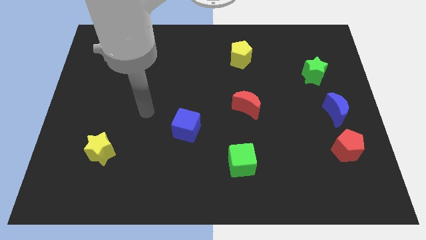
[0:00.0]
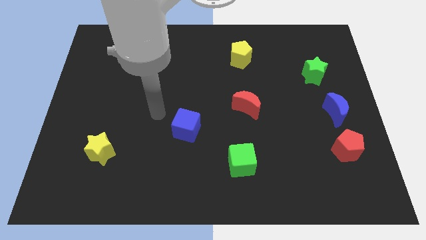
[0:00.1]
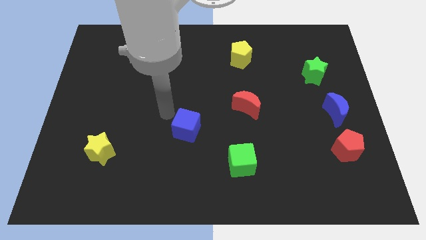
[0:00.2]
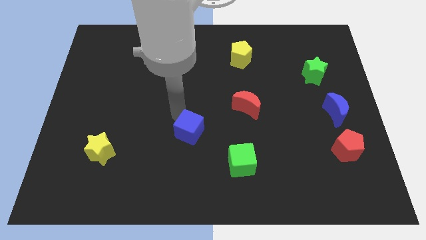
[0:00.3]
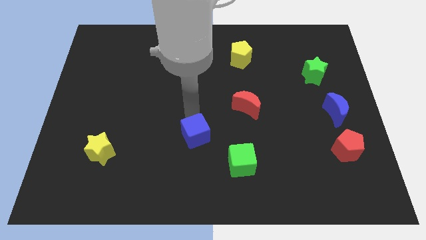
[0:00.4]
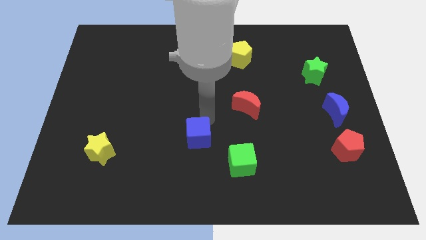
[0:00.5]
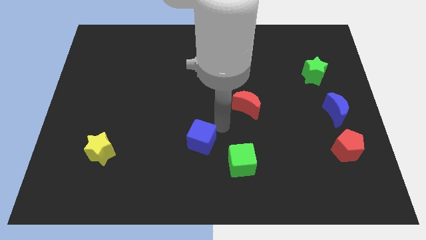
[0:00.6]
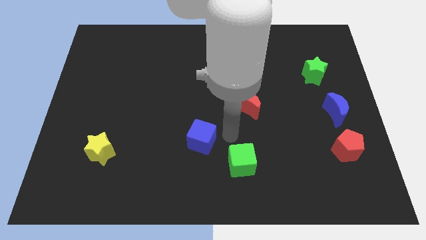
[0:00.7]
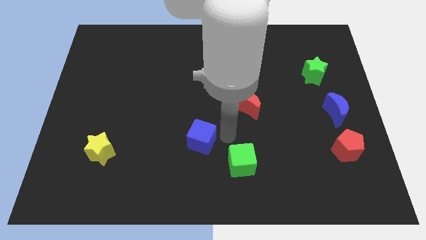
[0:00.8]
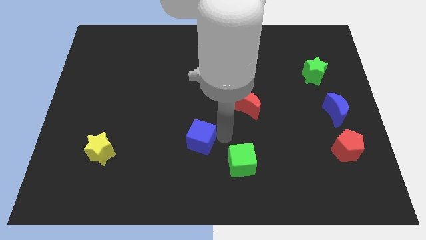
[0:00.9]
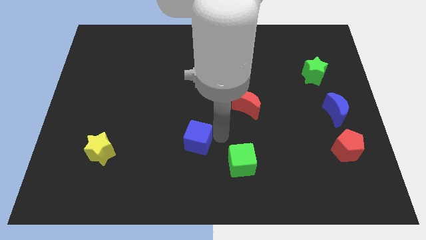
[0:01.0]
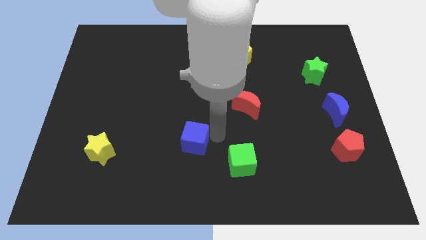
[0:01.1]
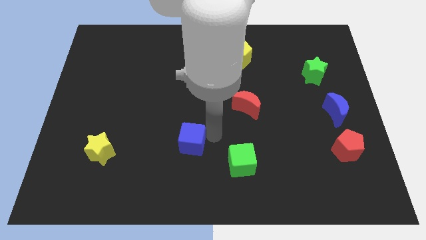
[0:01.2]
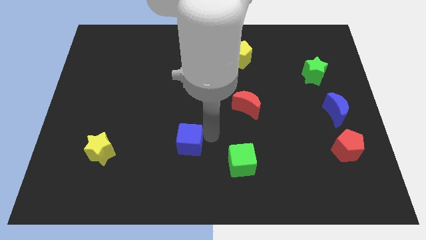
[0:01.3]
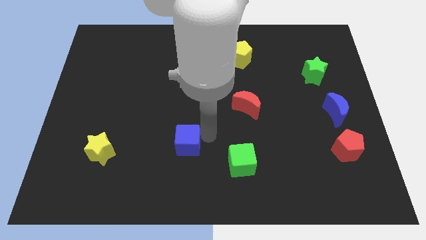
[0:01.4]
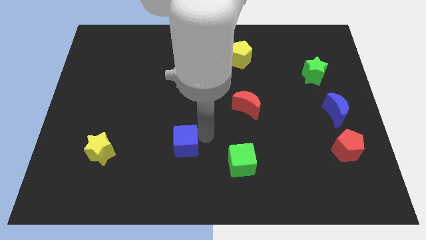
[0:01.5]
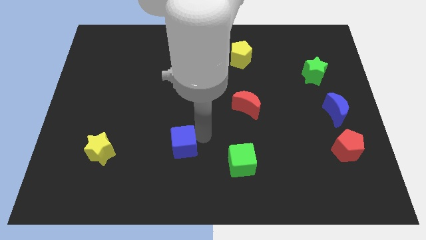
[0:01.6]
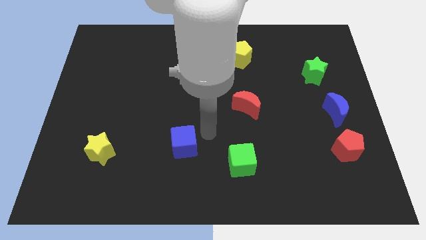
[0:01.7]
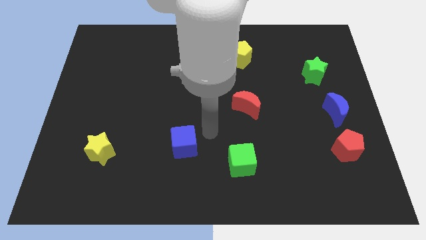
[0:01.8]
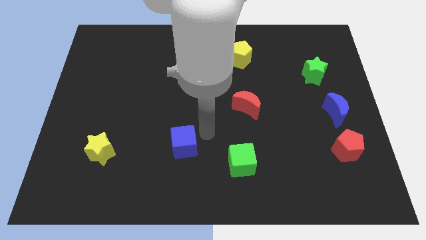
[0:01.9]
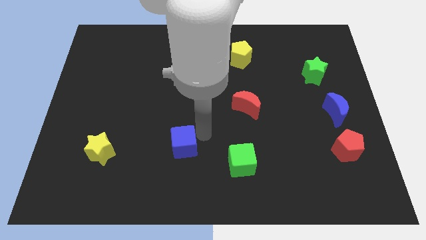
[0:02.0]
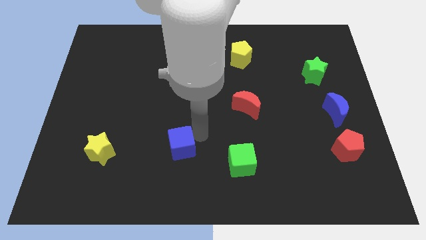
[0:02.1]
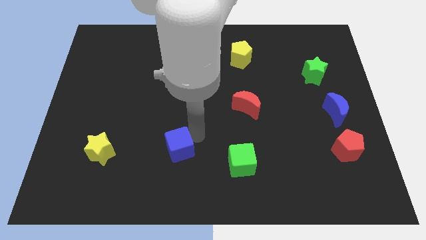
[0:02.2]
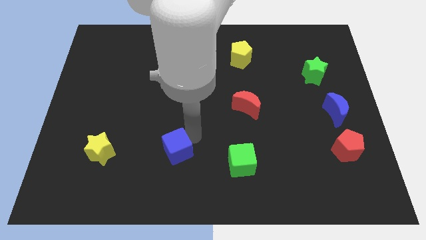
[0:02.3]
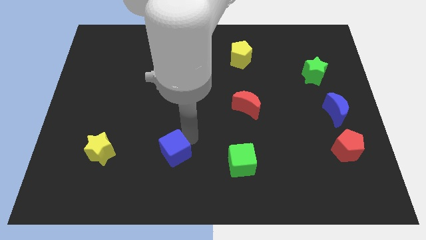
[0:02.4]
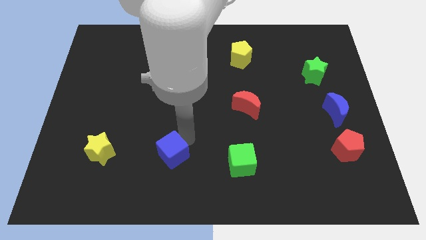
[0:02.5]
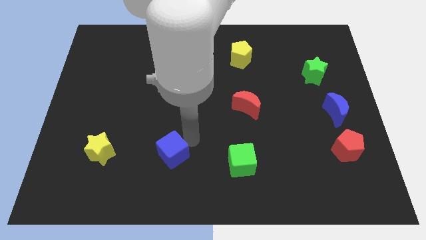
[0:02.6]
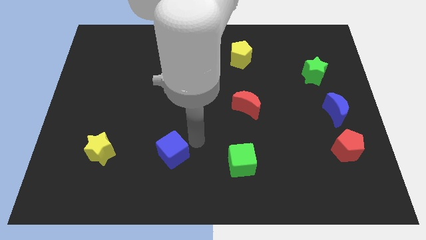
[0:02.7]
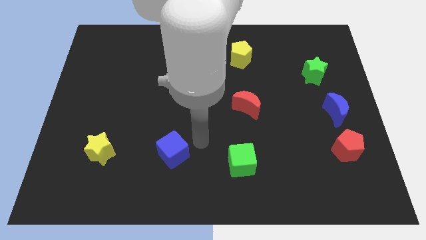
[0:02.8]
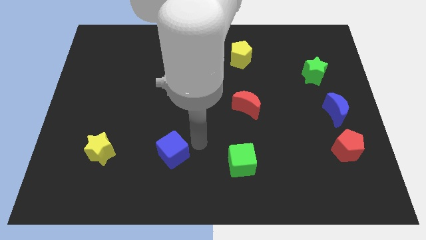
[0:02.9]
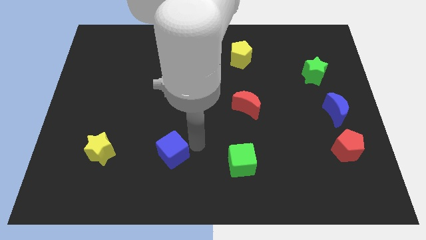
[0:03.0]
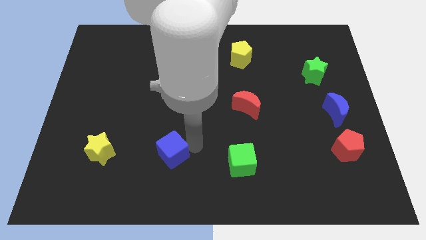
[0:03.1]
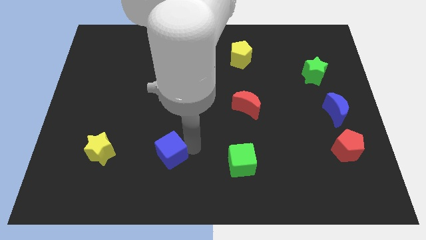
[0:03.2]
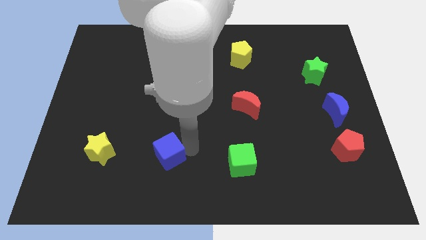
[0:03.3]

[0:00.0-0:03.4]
slightly move the blue cube downwards and left diagonally

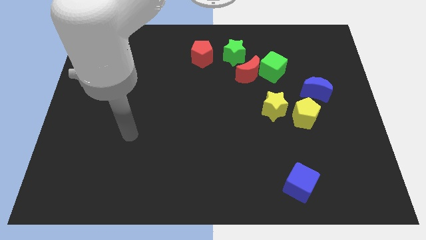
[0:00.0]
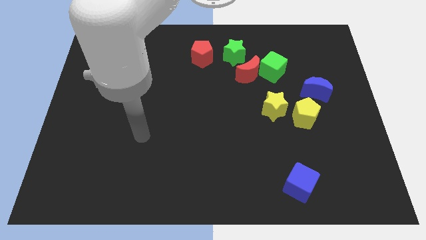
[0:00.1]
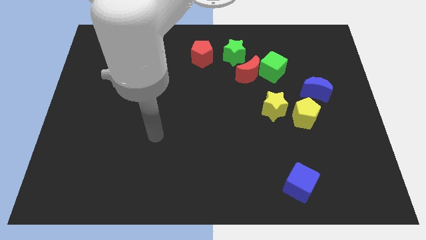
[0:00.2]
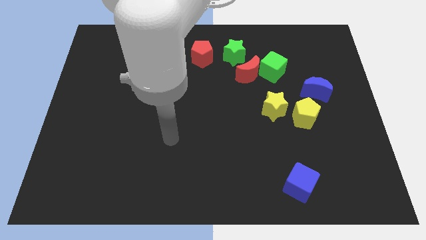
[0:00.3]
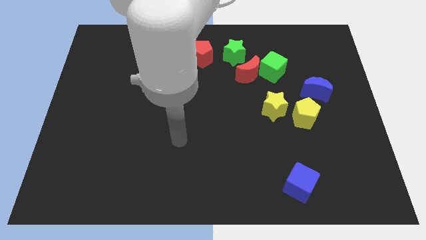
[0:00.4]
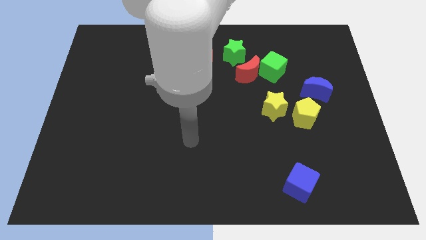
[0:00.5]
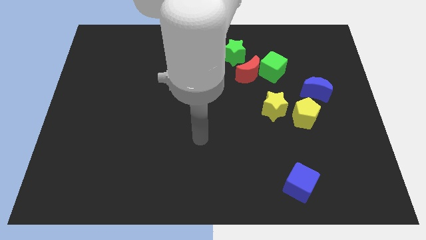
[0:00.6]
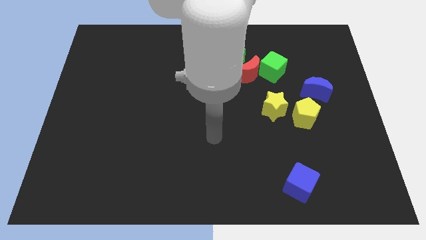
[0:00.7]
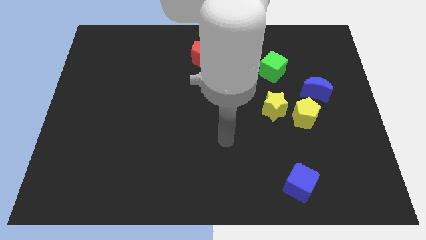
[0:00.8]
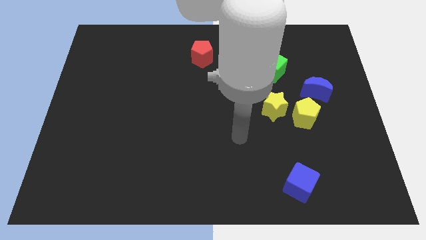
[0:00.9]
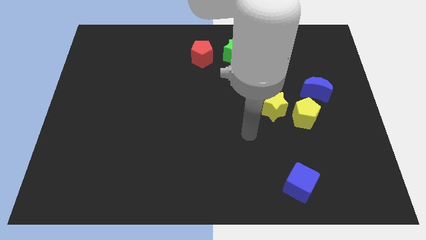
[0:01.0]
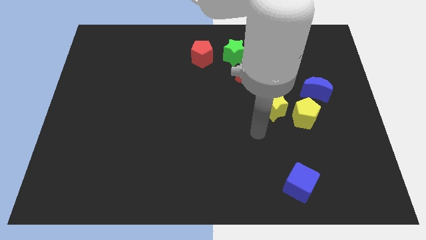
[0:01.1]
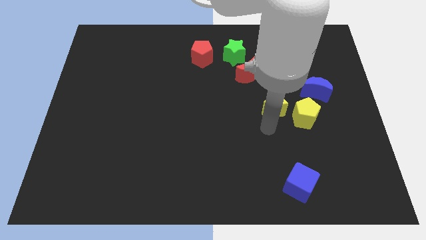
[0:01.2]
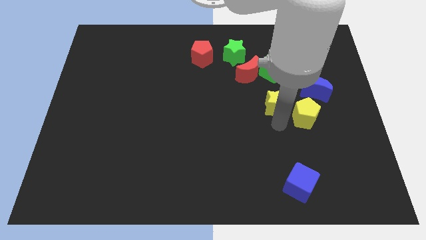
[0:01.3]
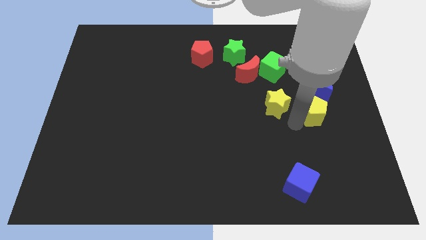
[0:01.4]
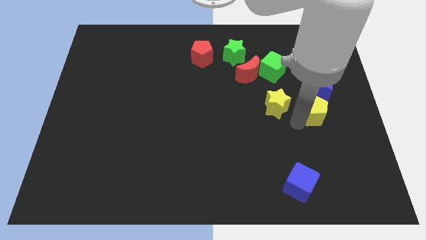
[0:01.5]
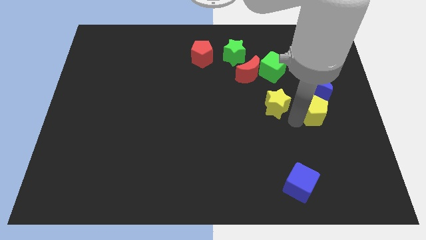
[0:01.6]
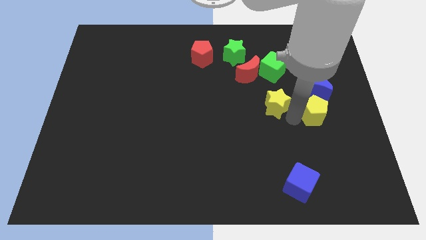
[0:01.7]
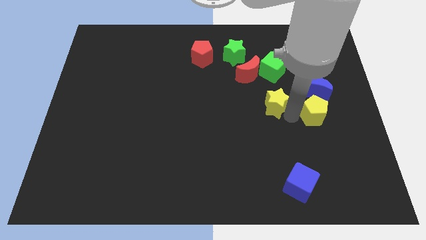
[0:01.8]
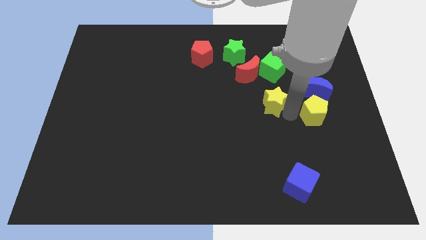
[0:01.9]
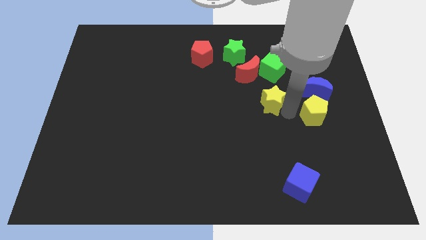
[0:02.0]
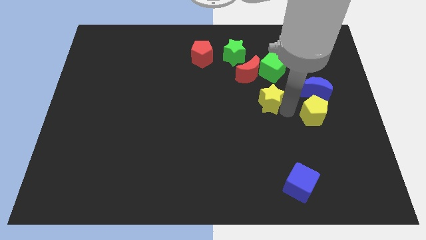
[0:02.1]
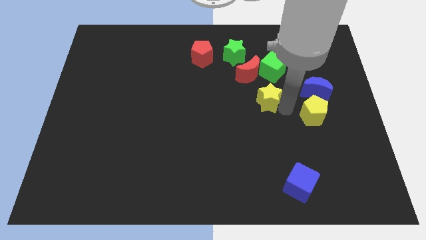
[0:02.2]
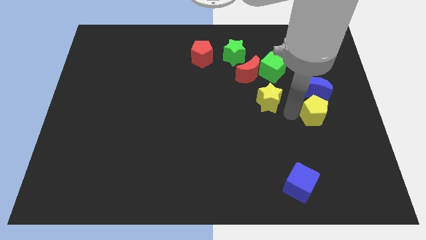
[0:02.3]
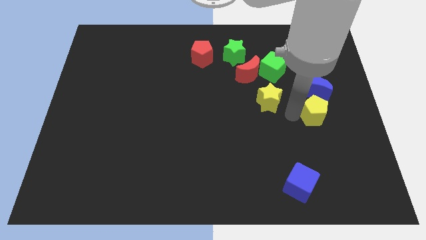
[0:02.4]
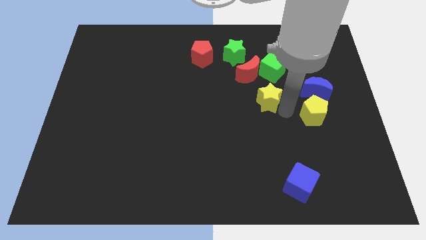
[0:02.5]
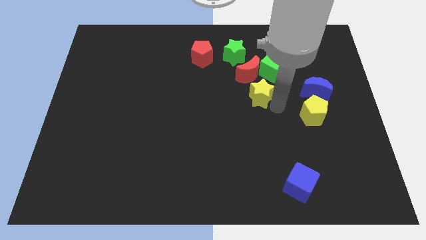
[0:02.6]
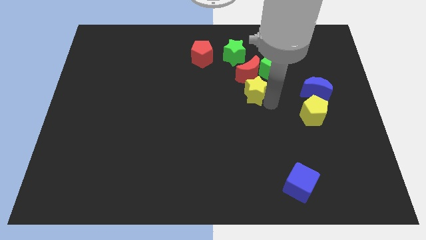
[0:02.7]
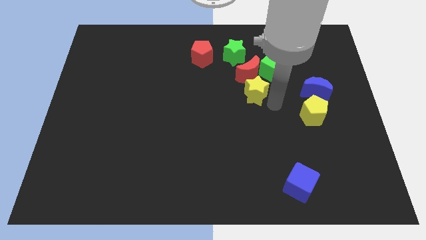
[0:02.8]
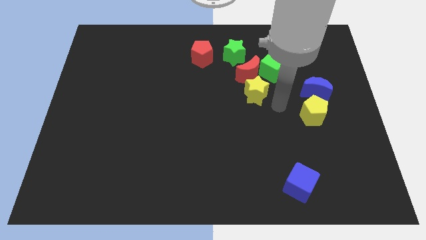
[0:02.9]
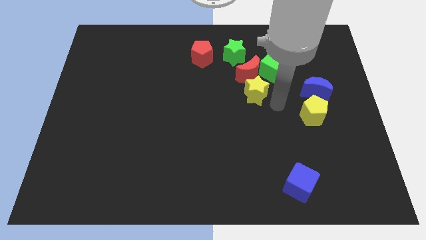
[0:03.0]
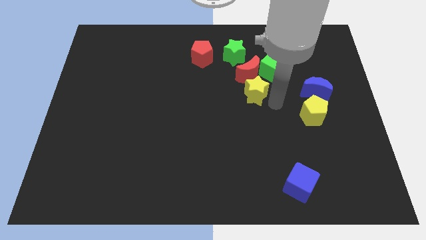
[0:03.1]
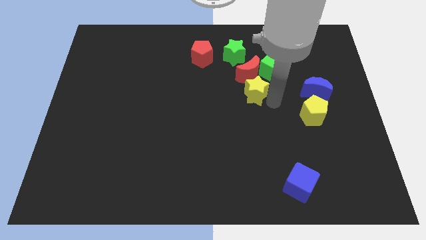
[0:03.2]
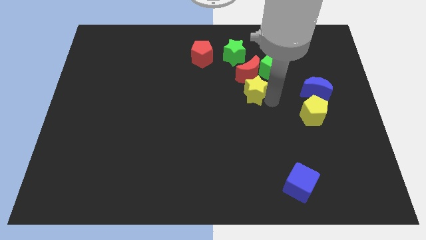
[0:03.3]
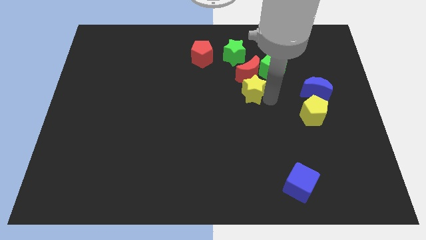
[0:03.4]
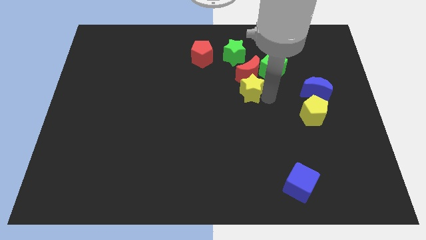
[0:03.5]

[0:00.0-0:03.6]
move the yellow star diagonally upwards and to the left a bit

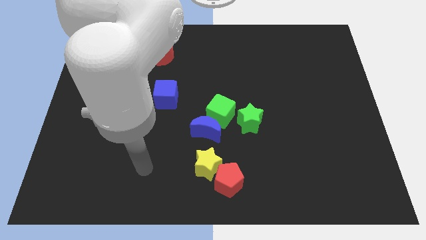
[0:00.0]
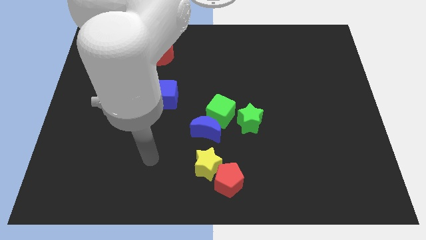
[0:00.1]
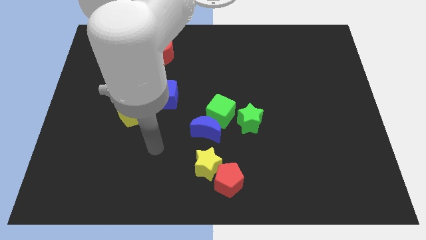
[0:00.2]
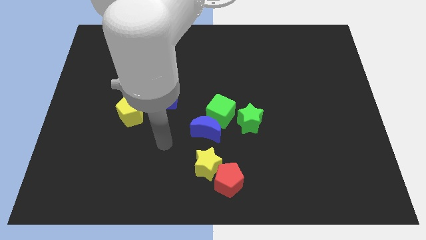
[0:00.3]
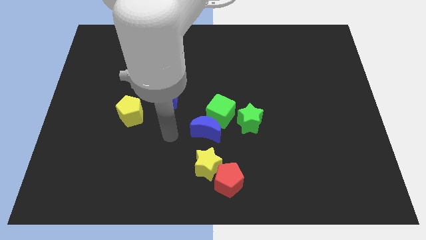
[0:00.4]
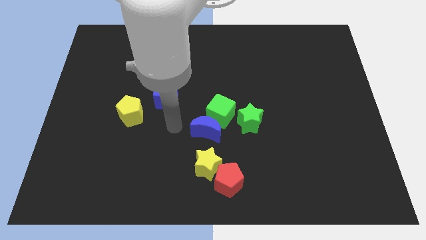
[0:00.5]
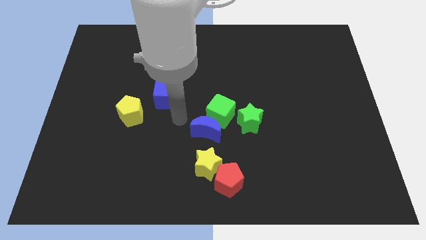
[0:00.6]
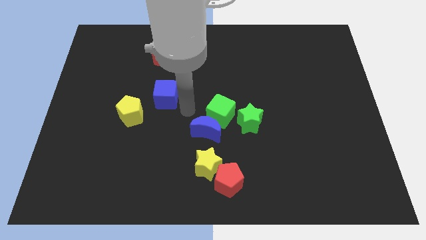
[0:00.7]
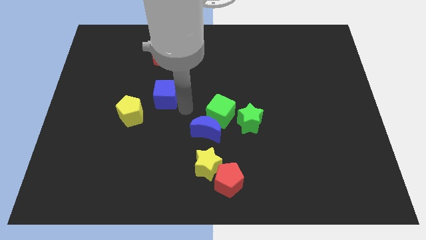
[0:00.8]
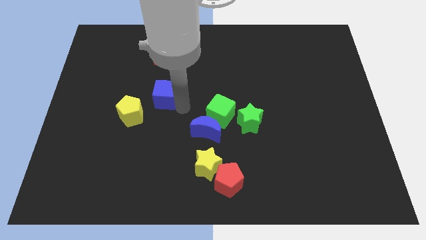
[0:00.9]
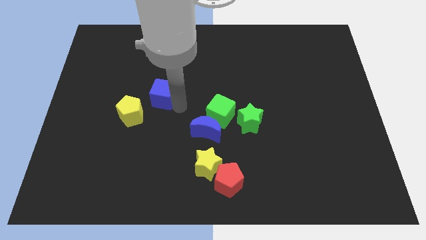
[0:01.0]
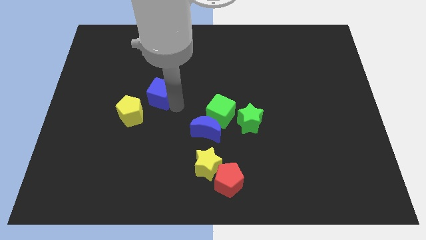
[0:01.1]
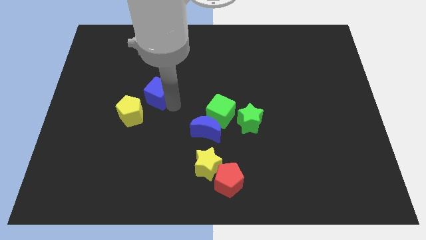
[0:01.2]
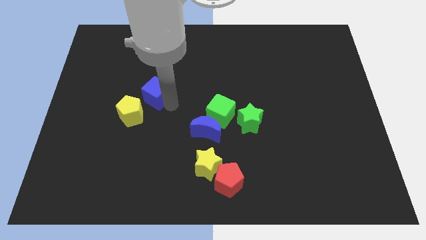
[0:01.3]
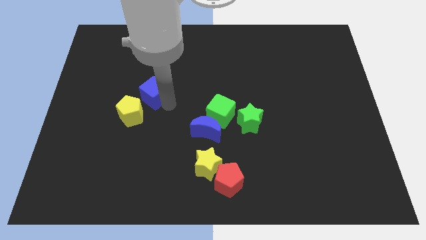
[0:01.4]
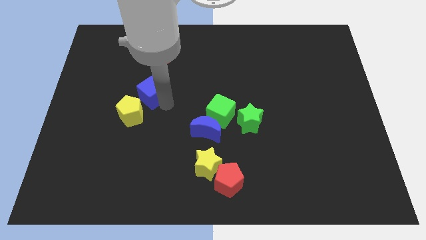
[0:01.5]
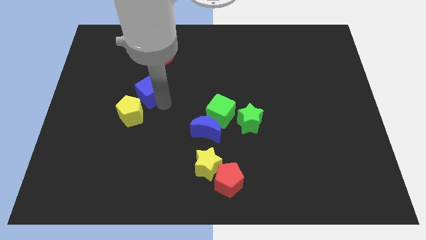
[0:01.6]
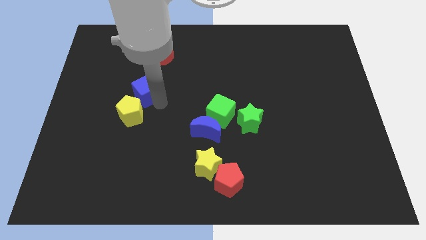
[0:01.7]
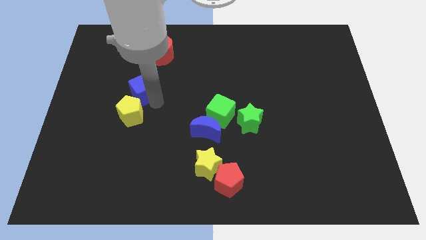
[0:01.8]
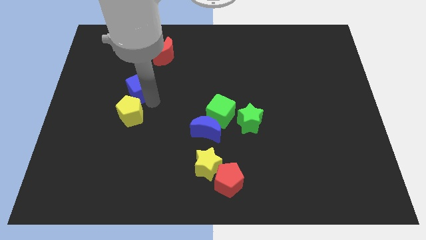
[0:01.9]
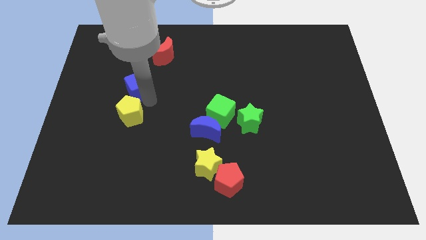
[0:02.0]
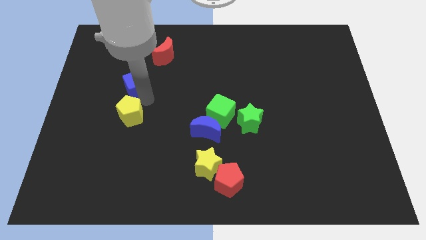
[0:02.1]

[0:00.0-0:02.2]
move the blue cube a little up and left
